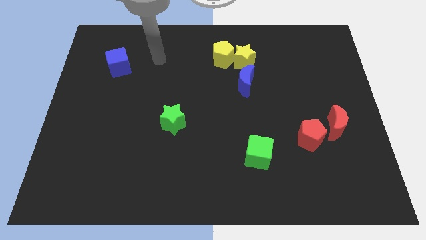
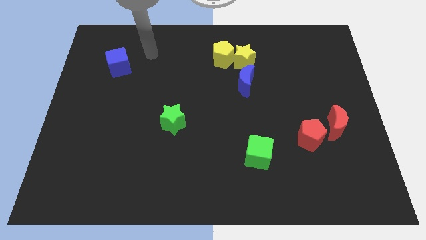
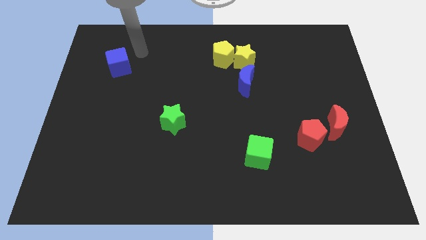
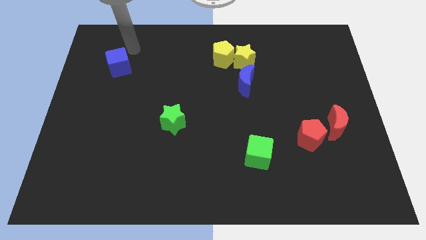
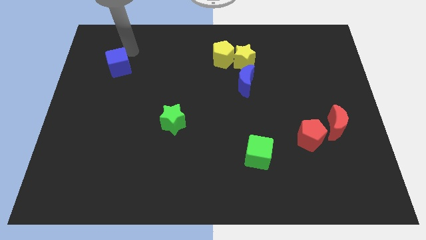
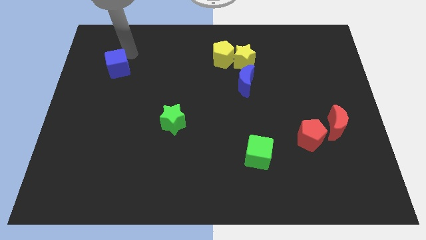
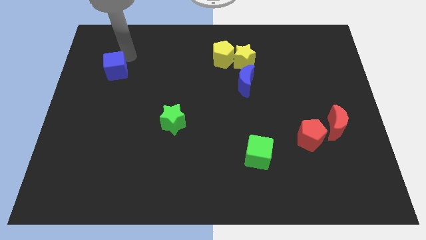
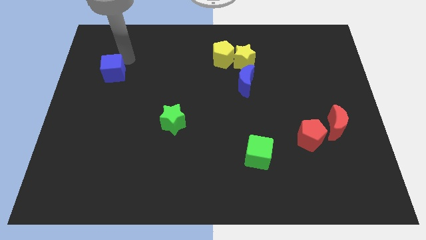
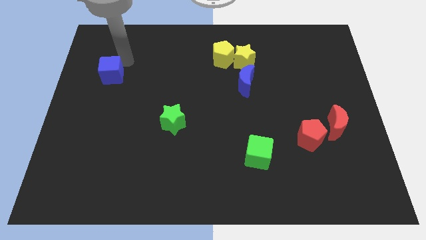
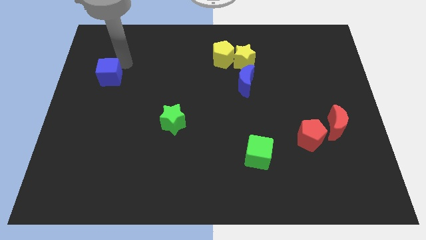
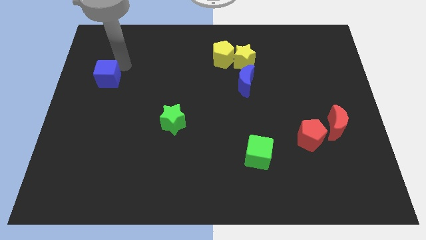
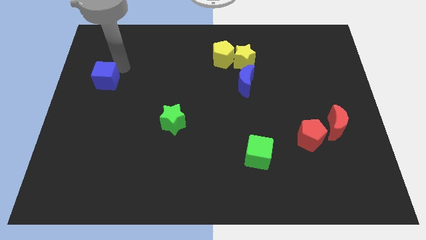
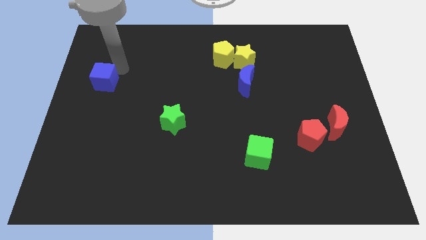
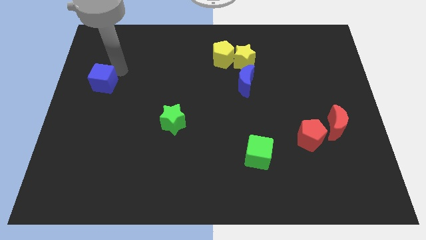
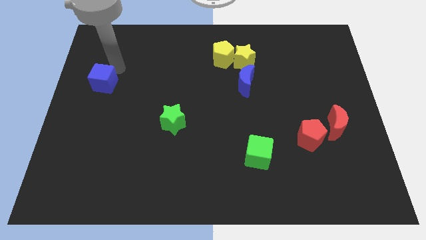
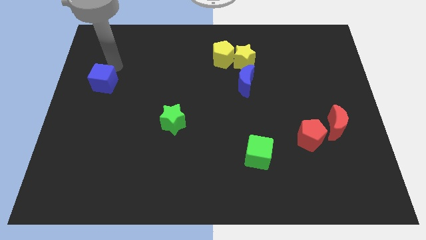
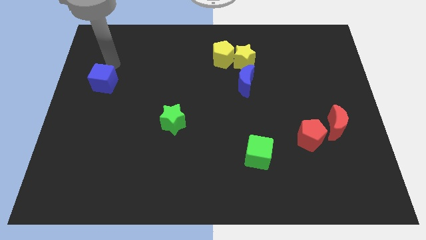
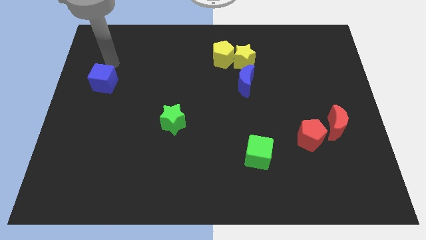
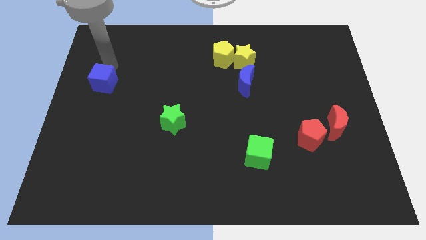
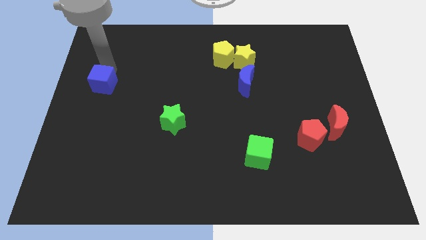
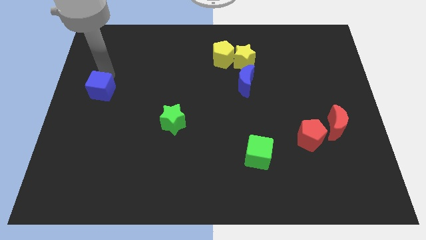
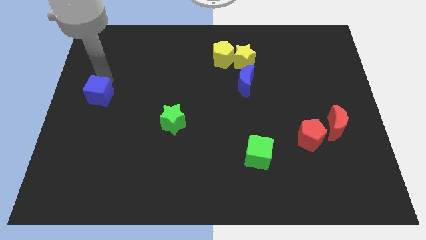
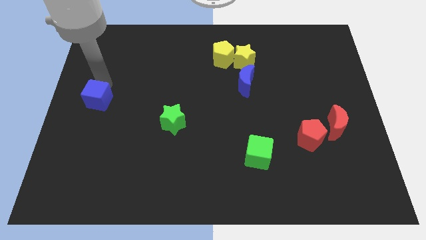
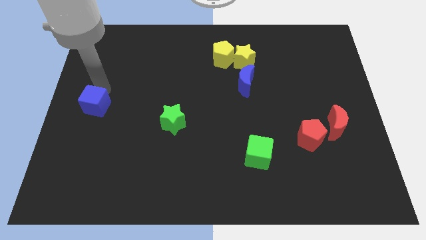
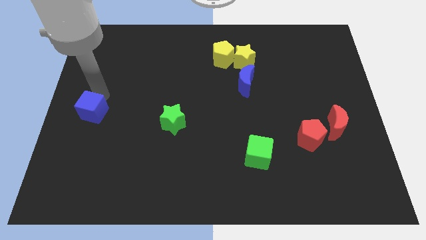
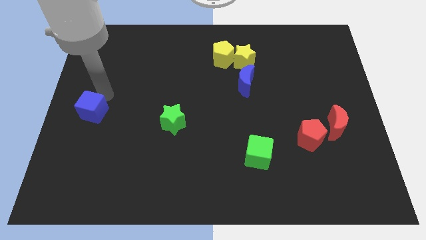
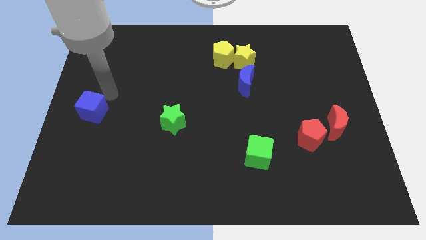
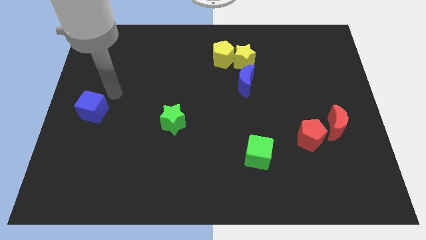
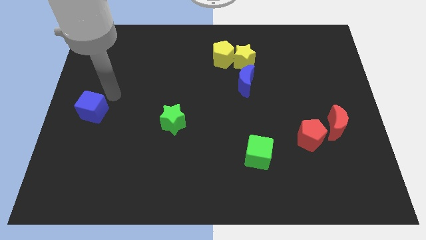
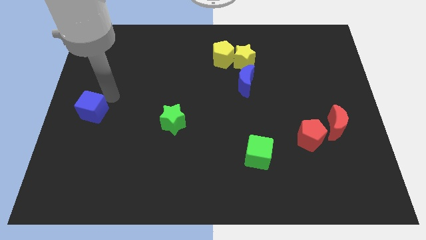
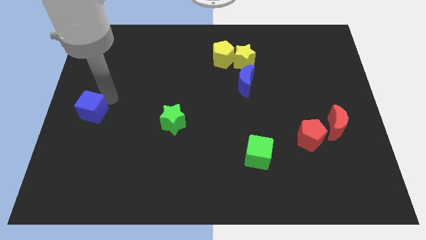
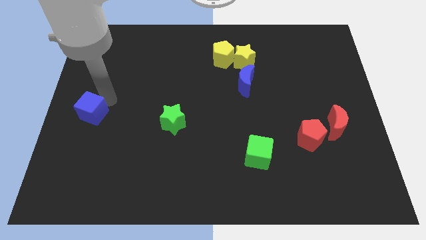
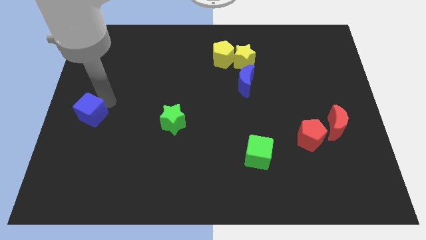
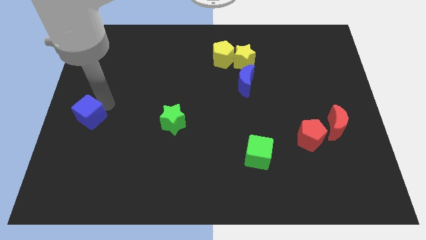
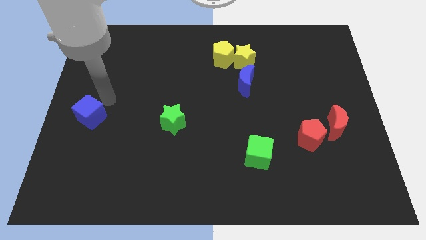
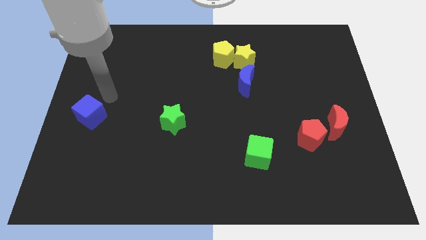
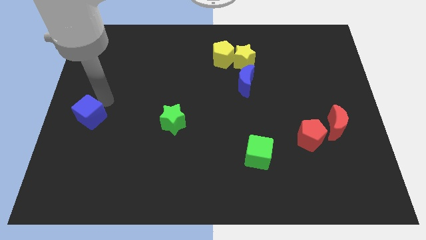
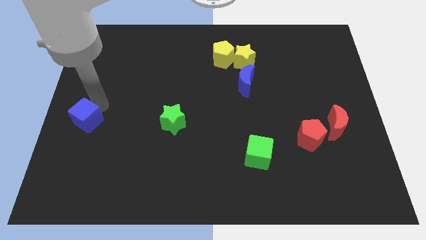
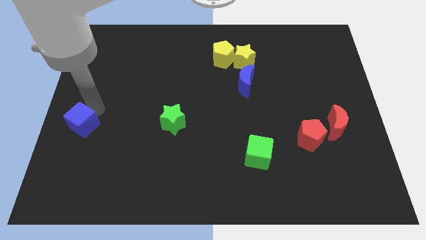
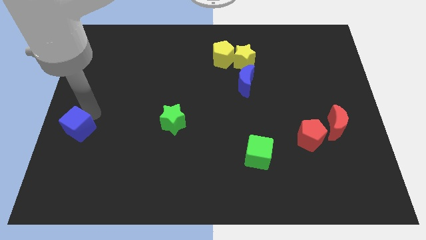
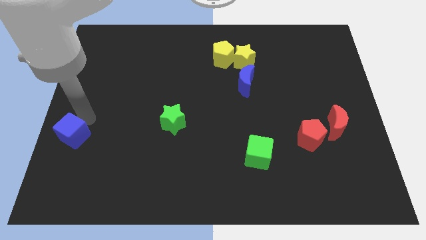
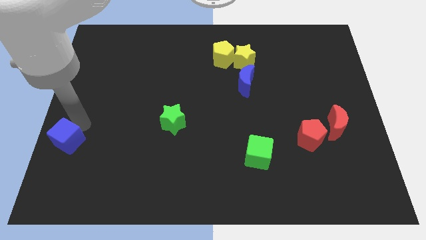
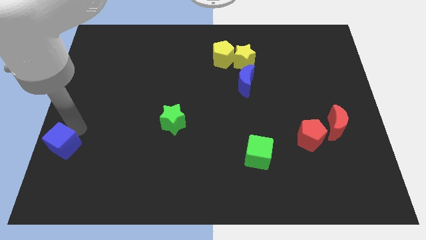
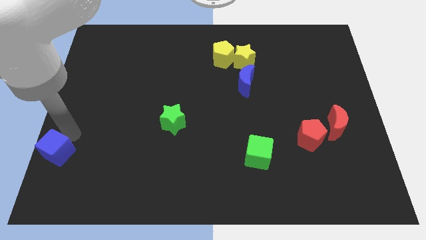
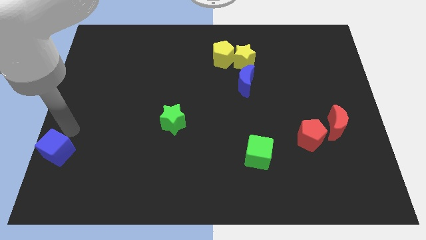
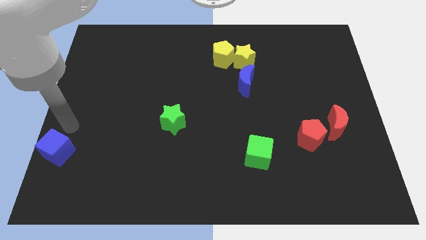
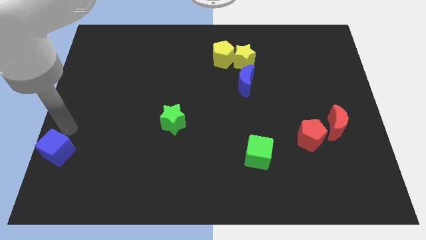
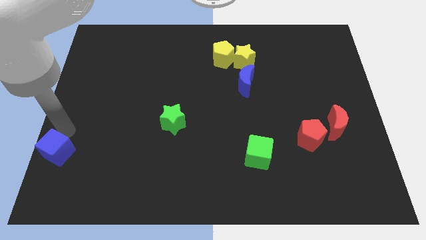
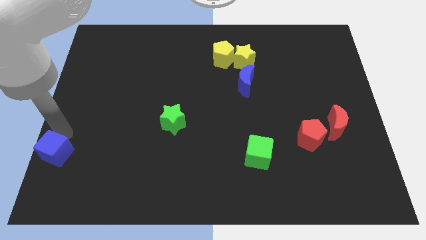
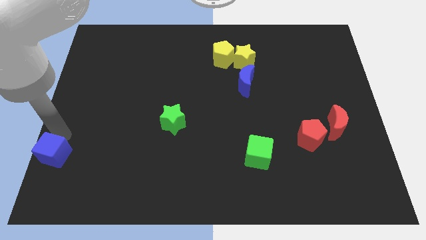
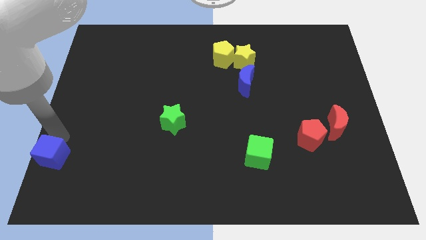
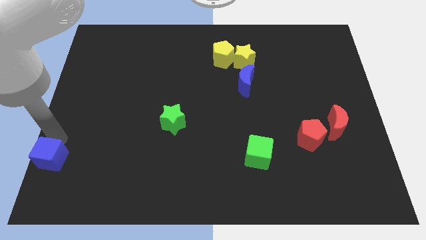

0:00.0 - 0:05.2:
slide the blue cube to the bottom left of the board

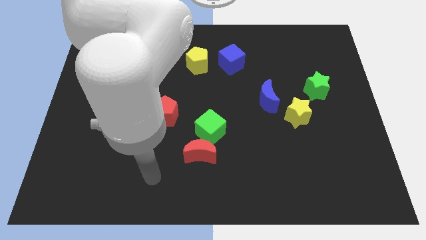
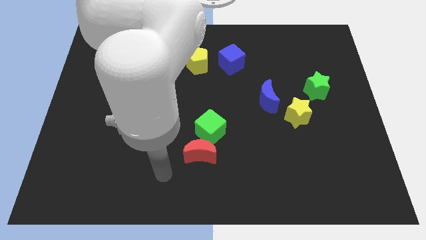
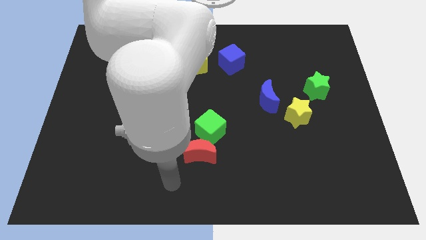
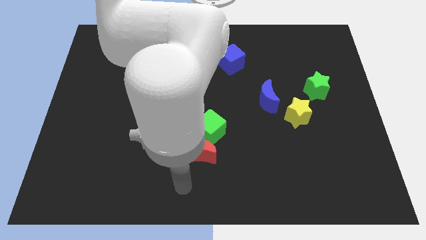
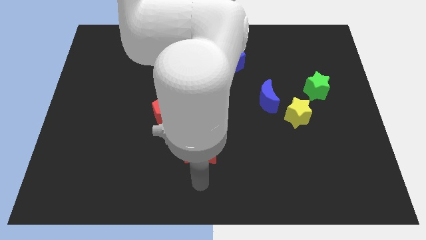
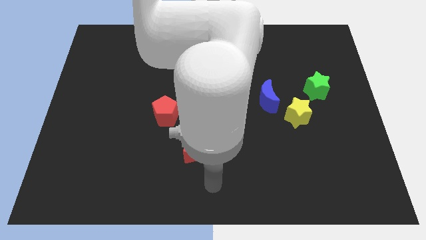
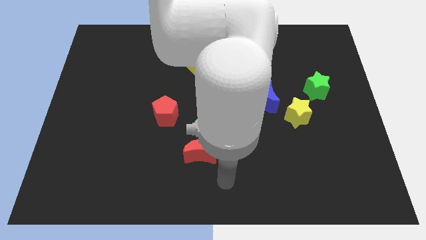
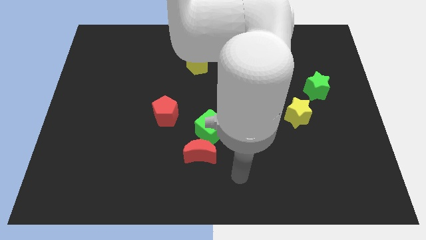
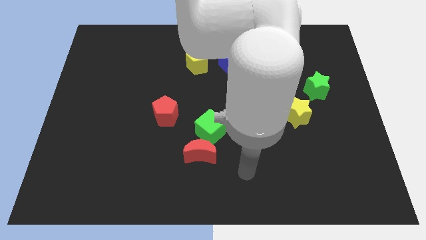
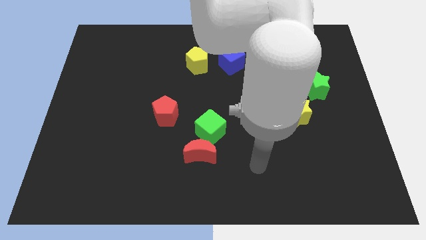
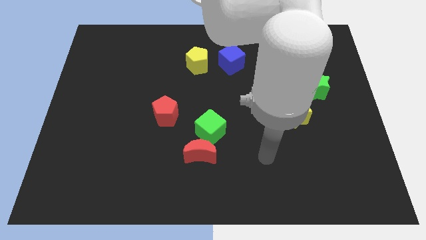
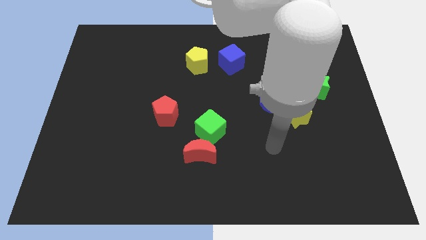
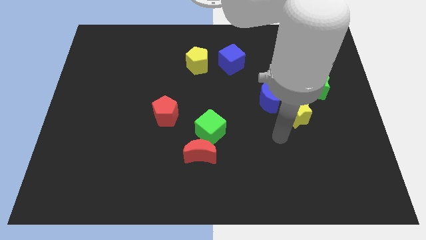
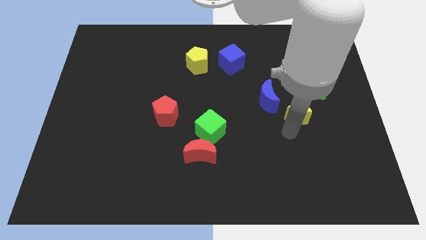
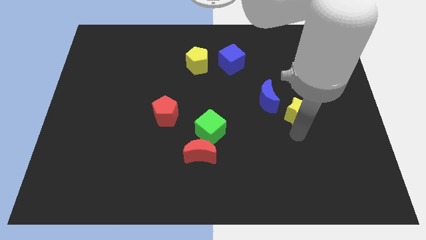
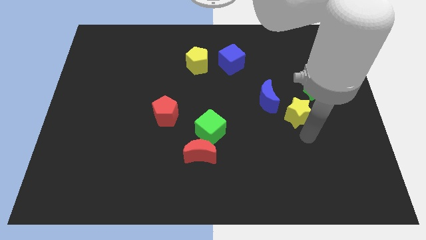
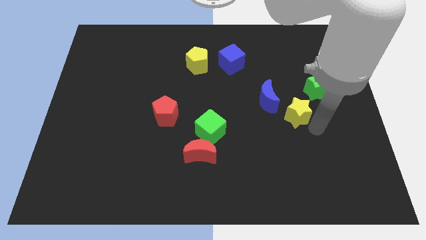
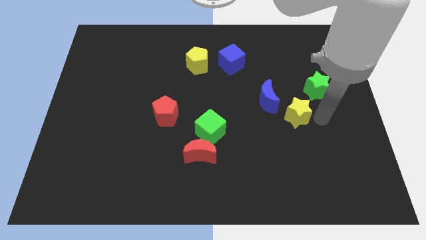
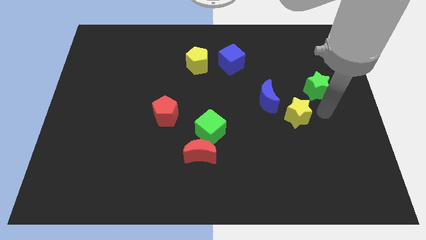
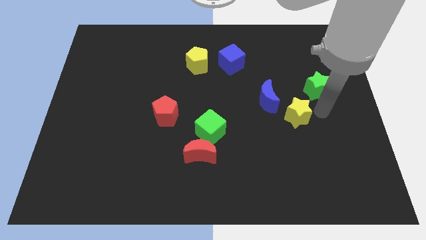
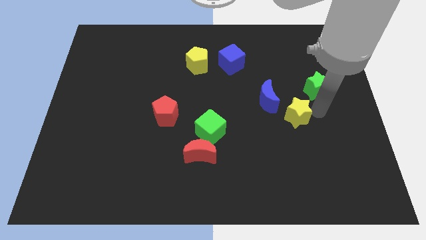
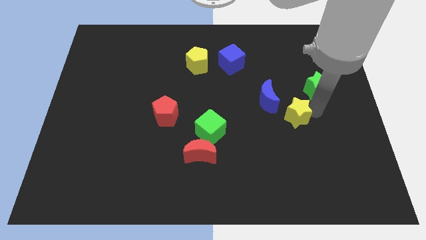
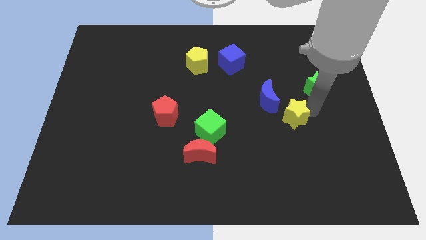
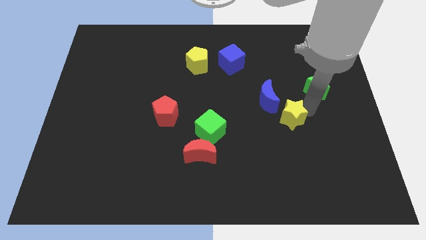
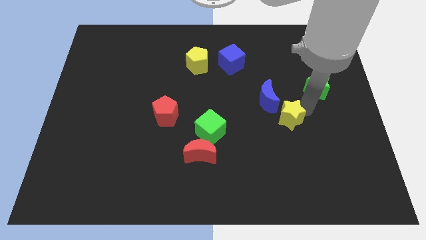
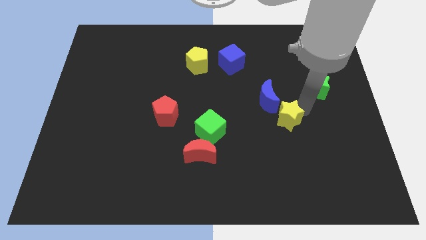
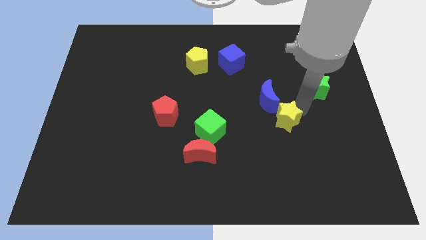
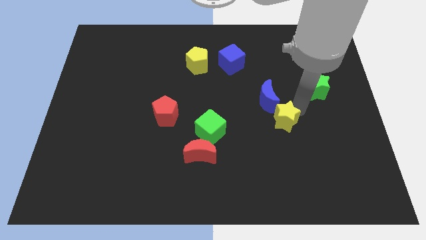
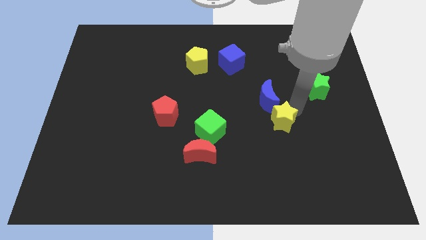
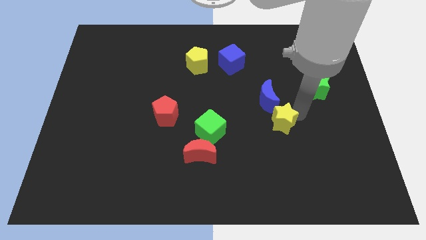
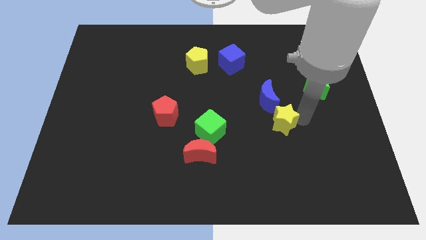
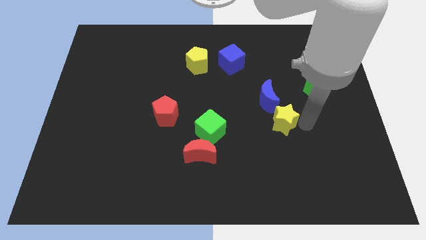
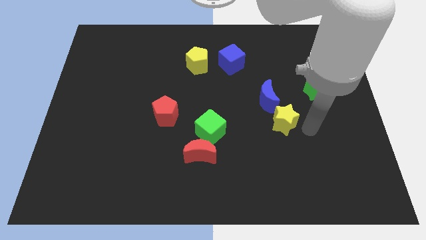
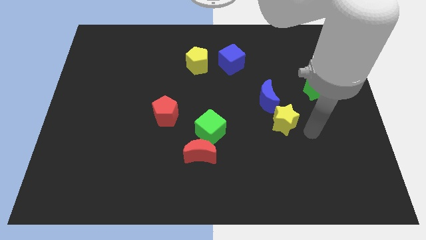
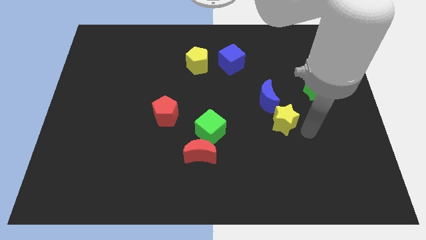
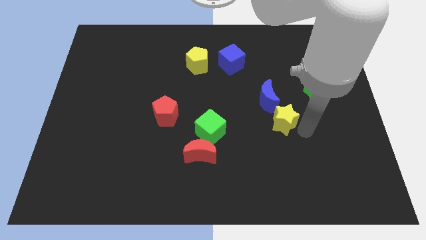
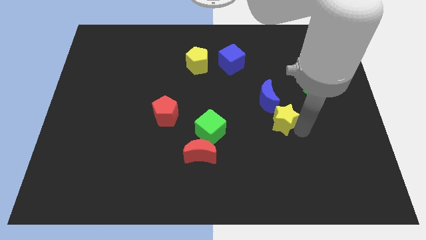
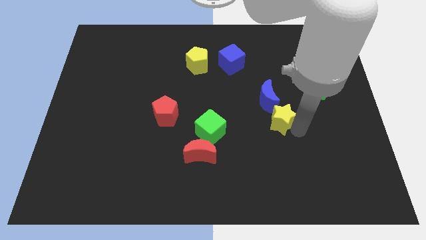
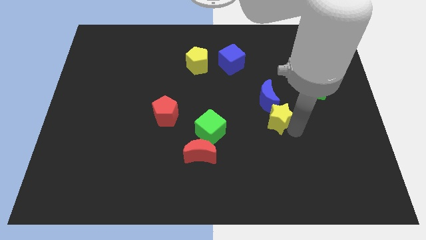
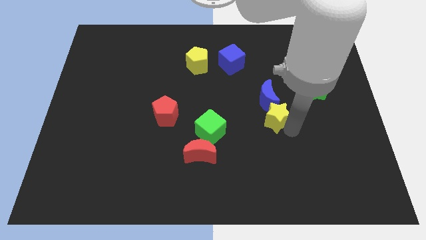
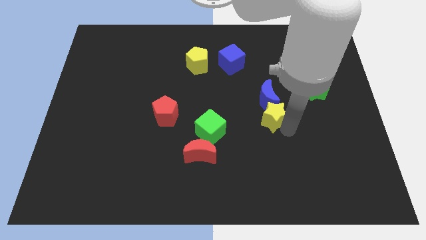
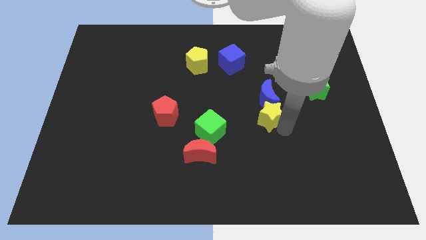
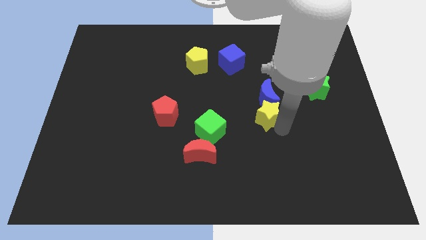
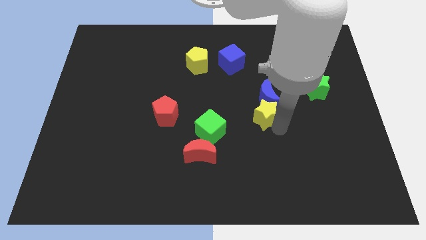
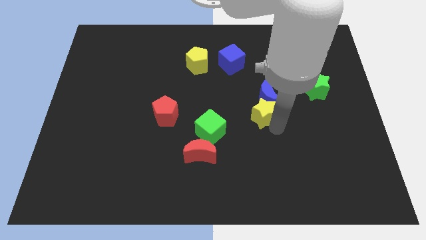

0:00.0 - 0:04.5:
move the yellow star to the middle
